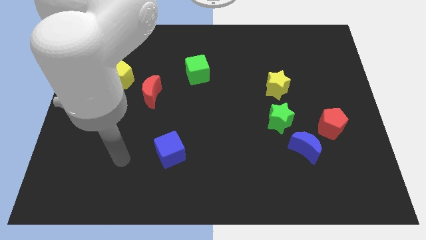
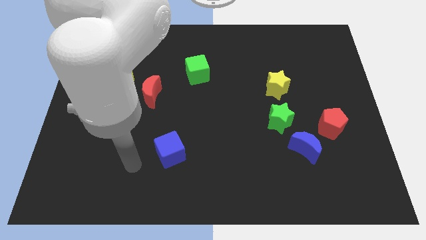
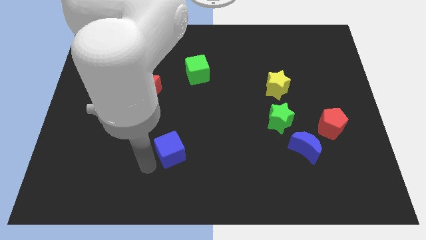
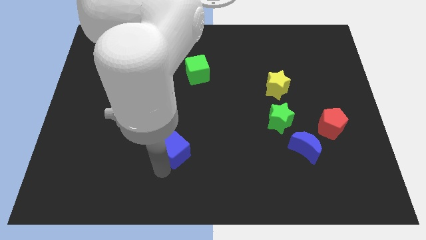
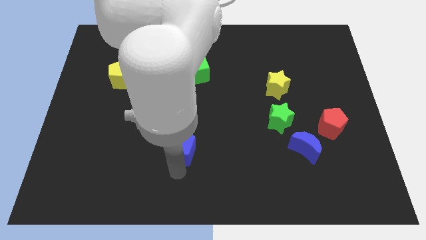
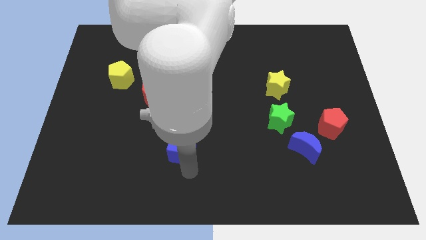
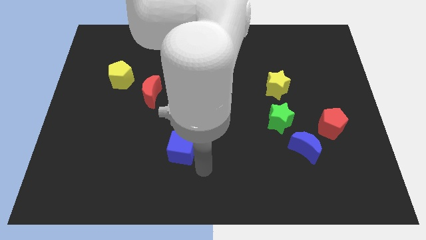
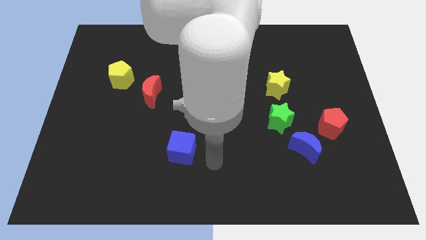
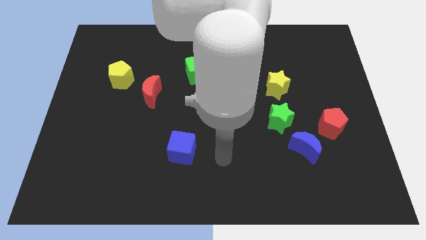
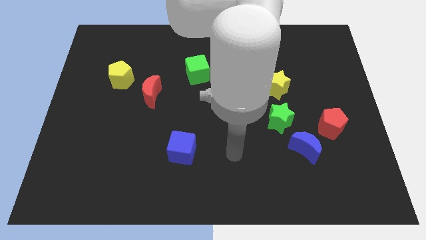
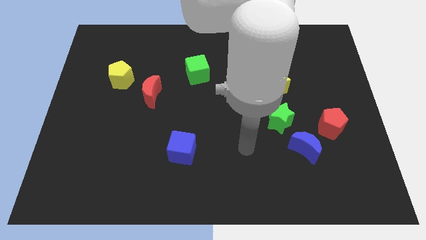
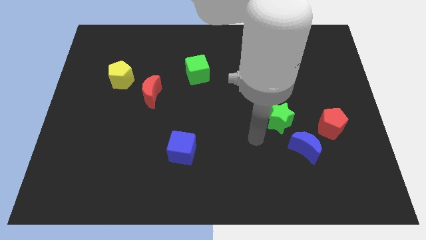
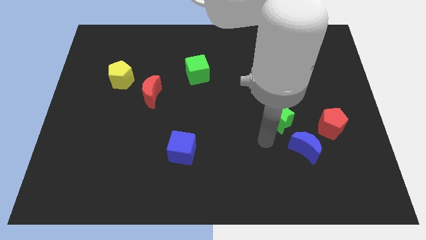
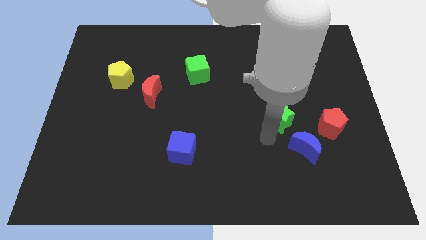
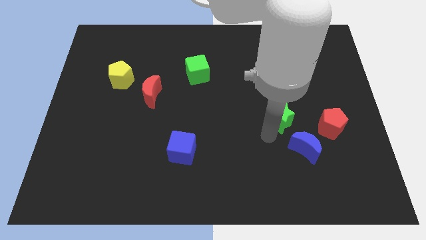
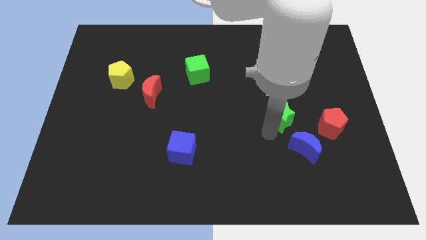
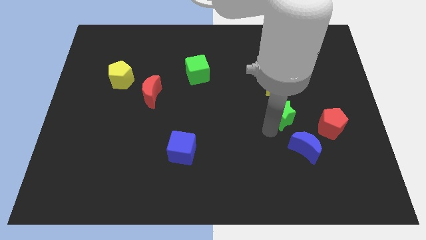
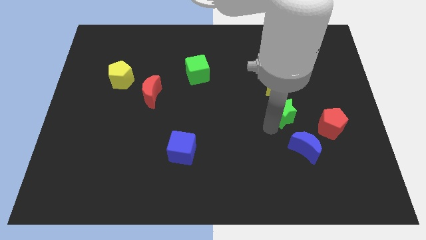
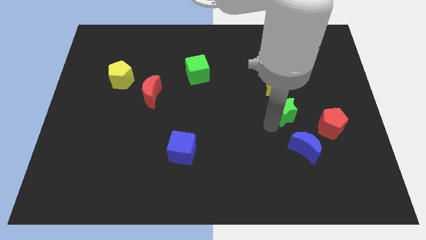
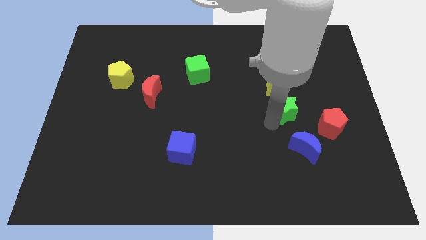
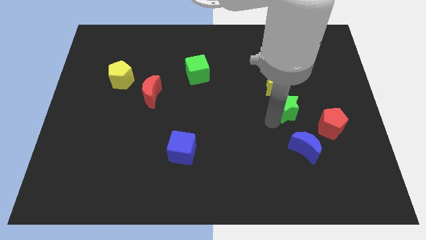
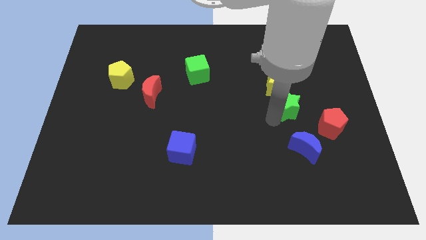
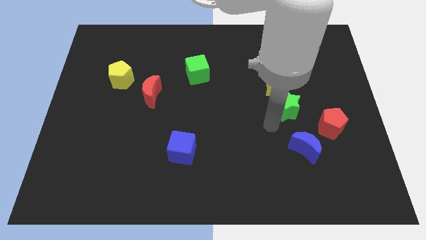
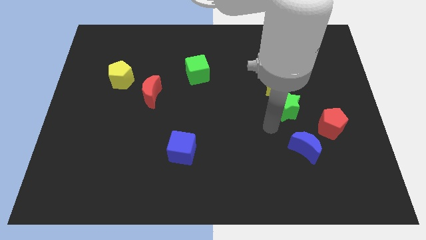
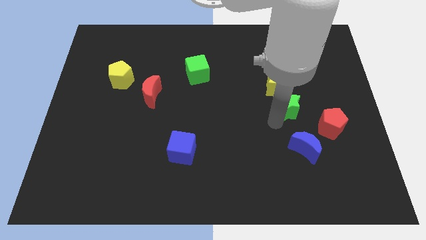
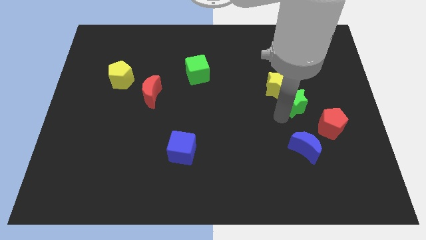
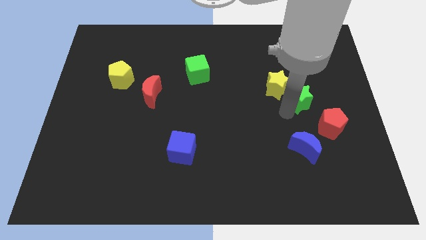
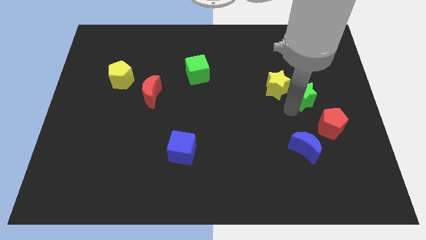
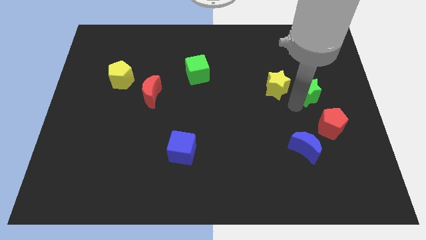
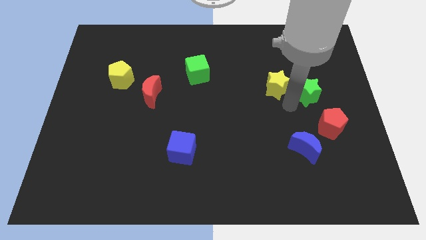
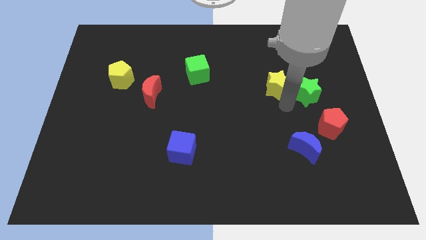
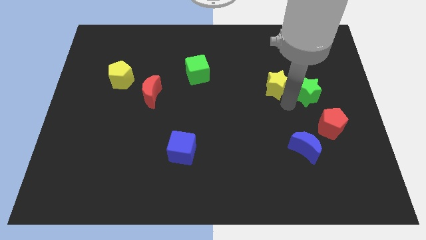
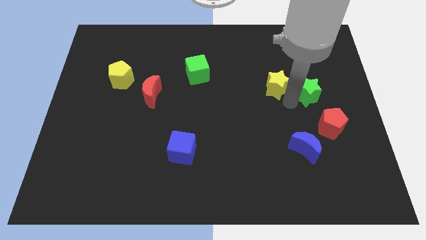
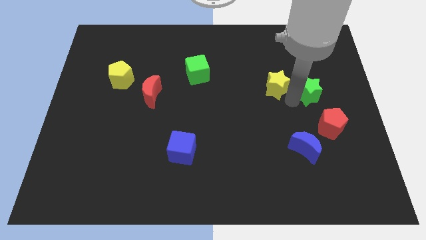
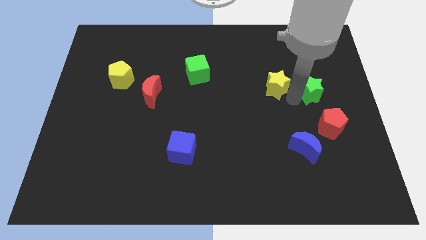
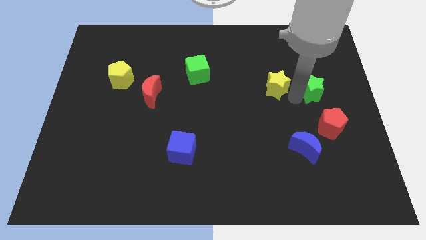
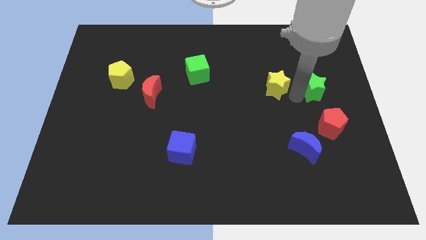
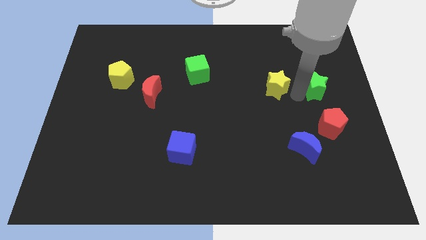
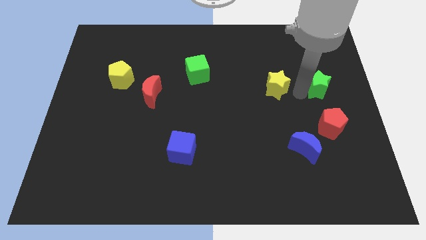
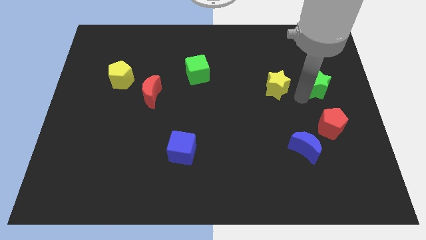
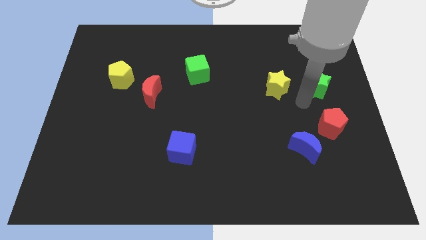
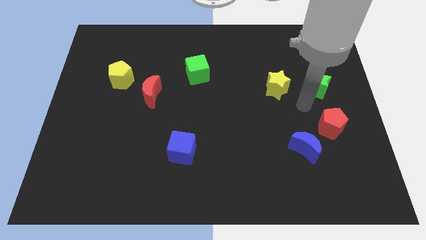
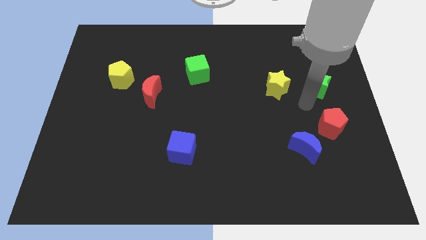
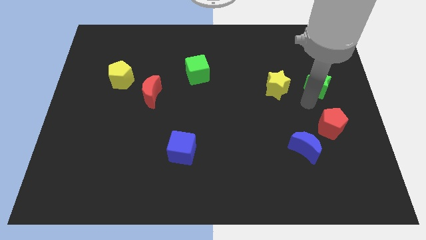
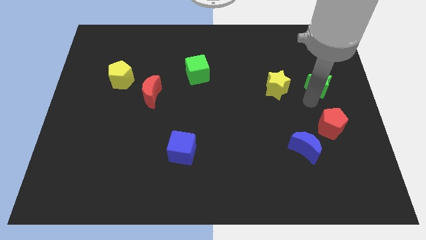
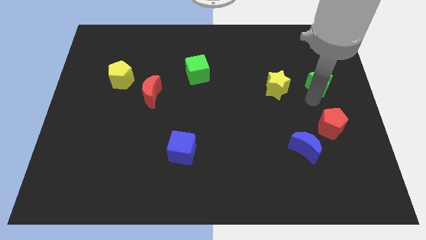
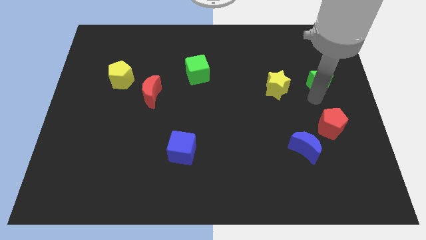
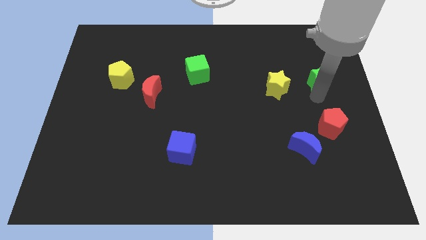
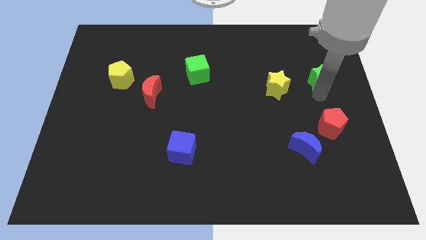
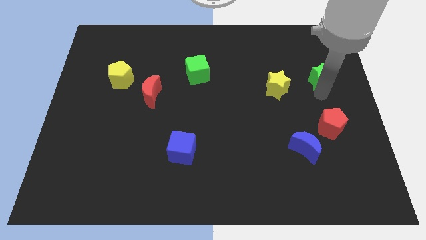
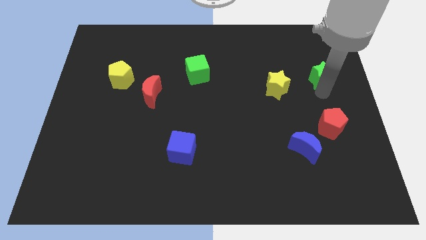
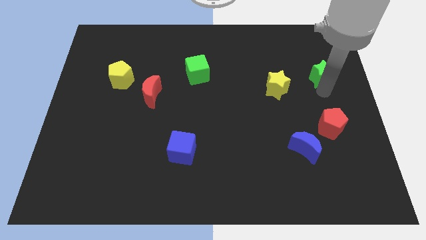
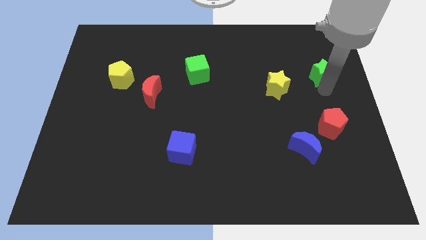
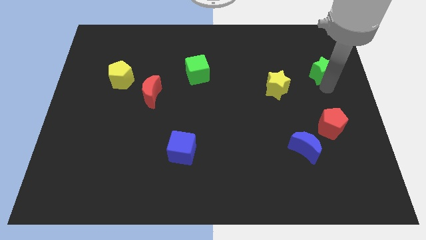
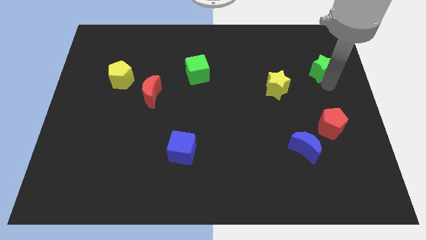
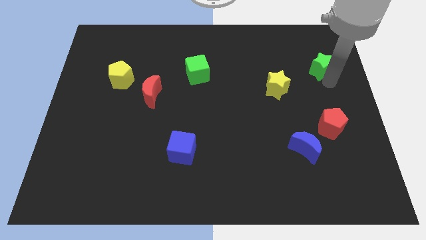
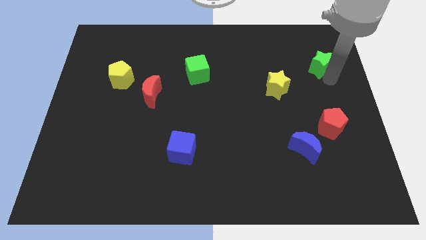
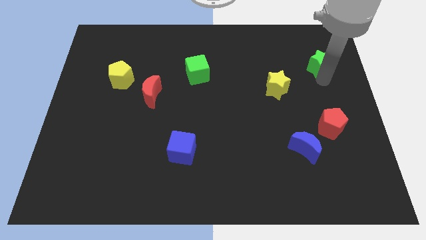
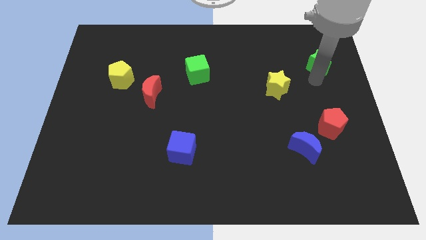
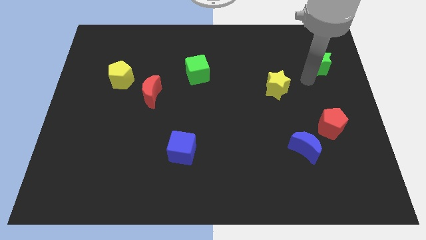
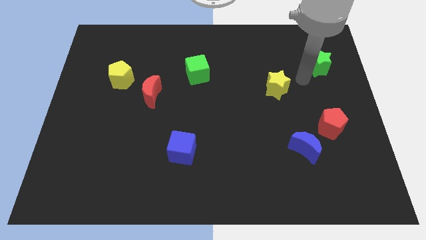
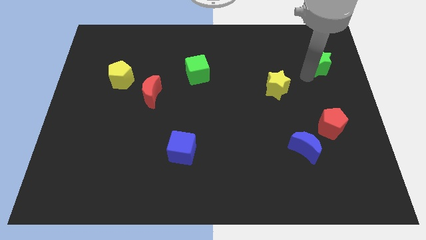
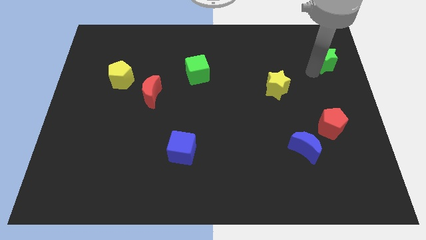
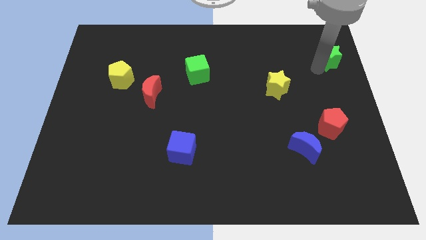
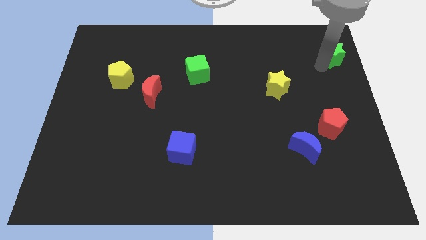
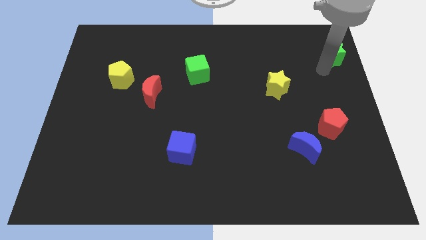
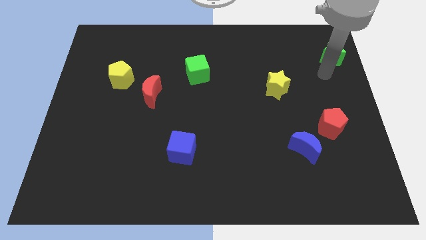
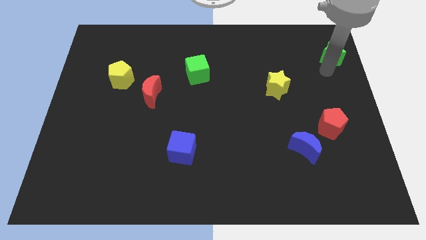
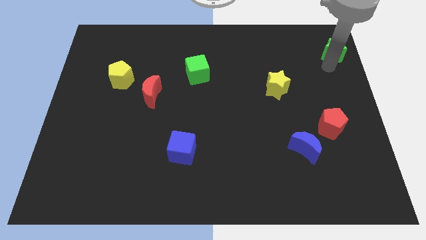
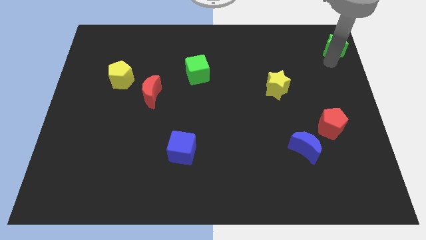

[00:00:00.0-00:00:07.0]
push the green star to the top right corner
